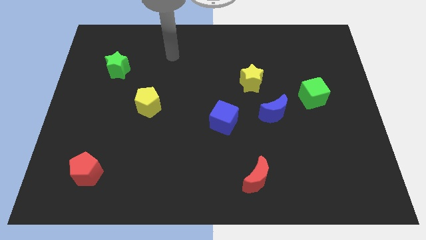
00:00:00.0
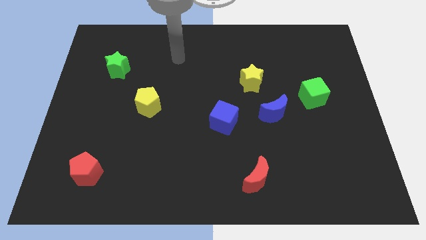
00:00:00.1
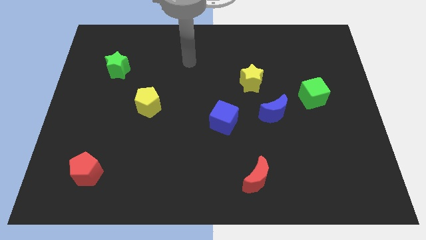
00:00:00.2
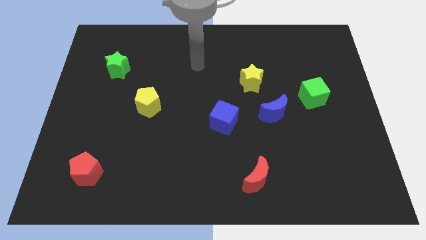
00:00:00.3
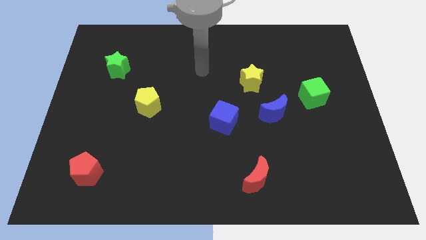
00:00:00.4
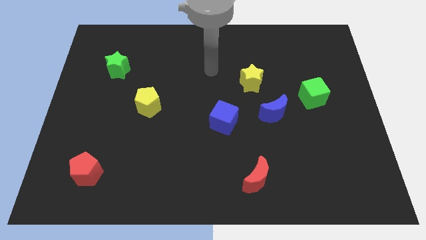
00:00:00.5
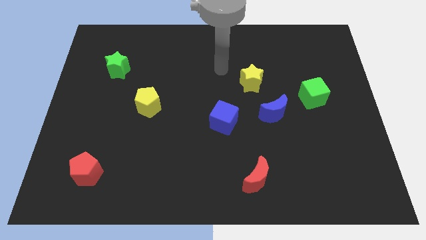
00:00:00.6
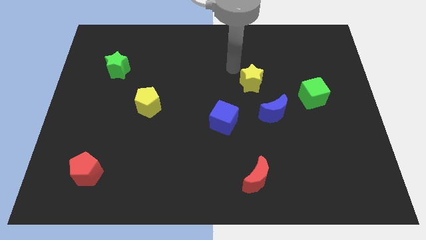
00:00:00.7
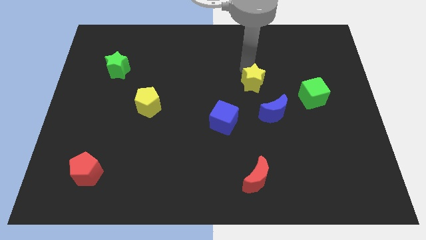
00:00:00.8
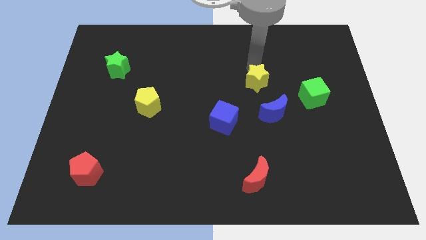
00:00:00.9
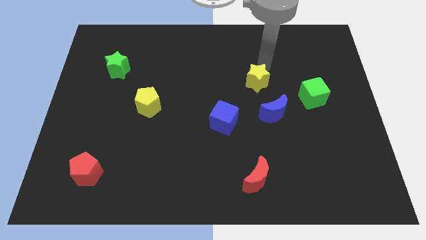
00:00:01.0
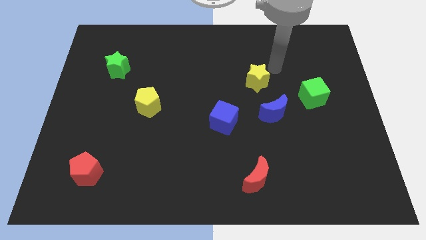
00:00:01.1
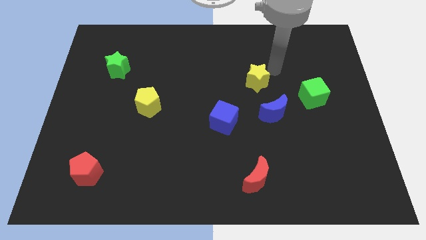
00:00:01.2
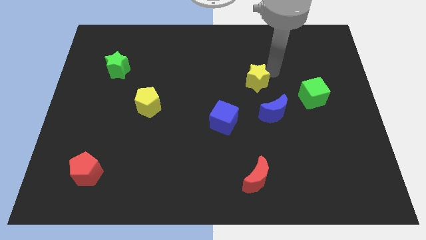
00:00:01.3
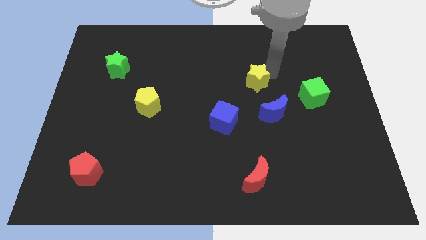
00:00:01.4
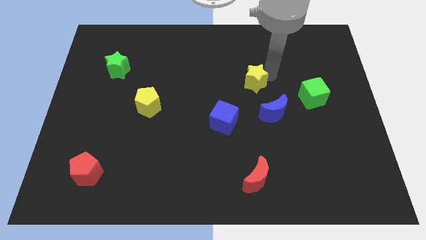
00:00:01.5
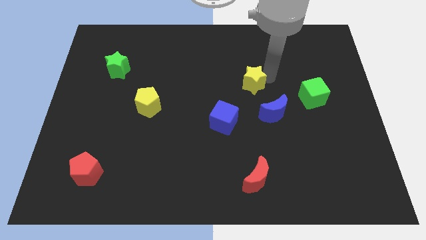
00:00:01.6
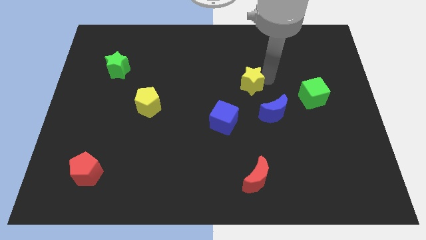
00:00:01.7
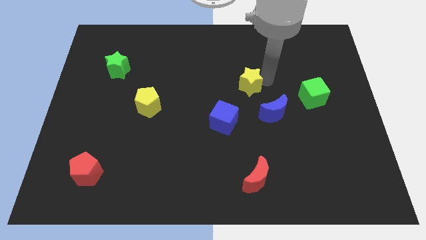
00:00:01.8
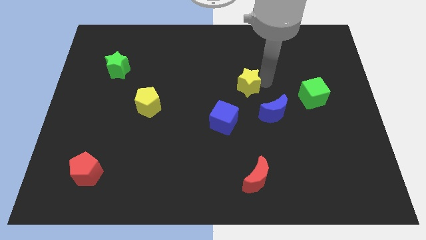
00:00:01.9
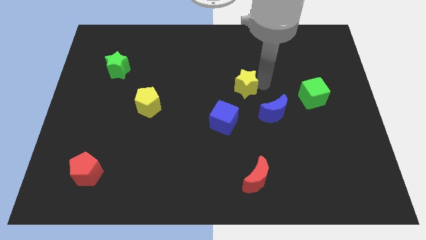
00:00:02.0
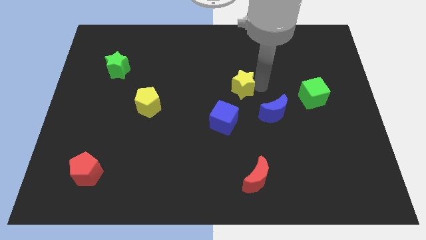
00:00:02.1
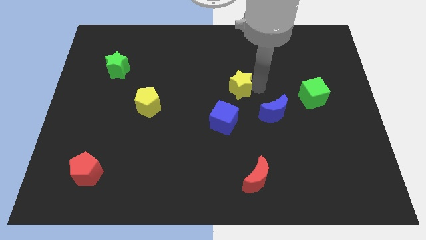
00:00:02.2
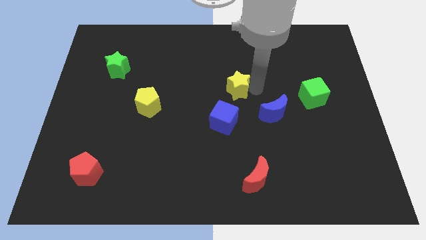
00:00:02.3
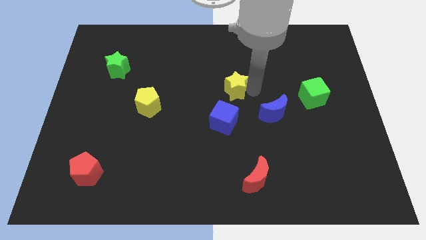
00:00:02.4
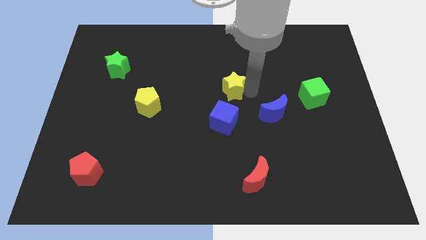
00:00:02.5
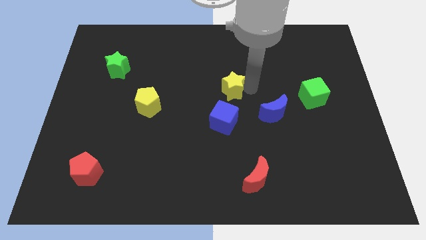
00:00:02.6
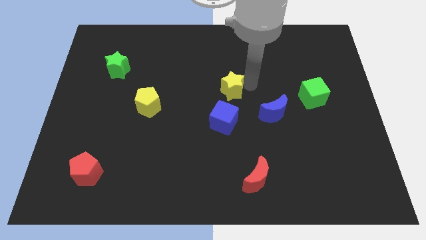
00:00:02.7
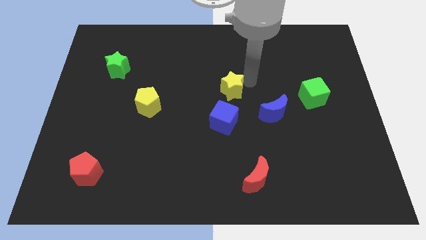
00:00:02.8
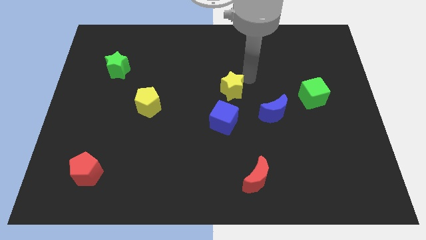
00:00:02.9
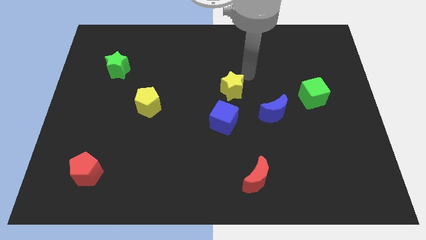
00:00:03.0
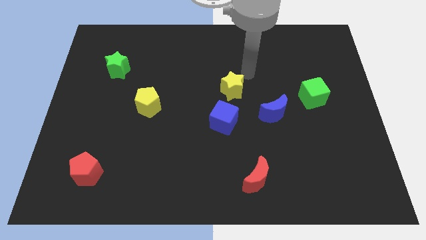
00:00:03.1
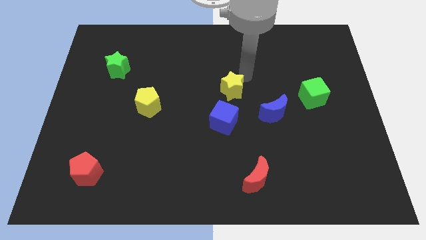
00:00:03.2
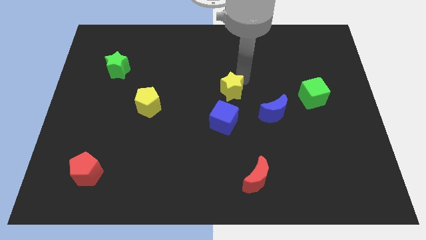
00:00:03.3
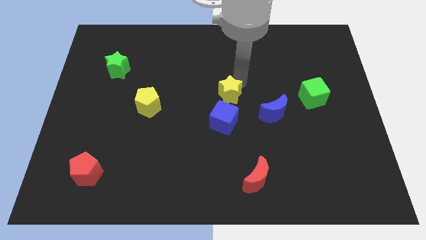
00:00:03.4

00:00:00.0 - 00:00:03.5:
move the yellow star a bit diagonally down and left

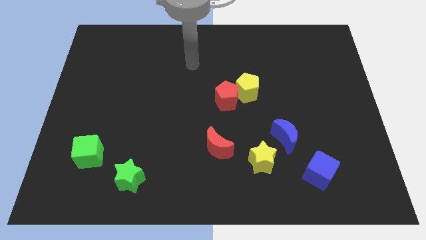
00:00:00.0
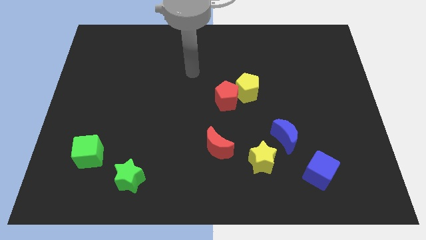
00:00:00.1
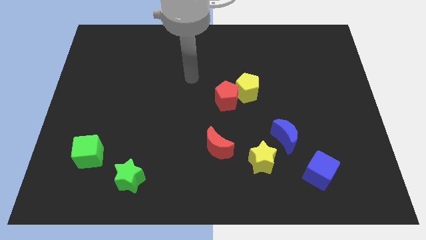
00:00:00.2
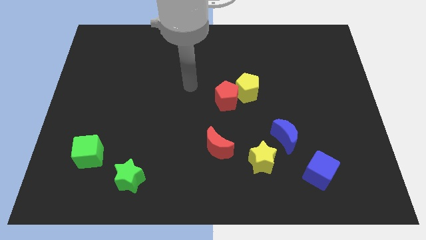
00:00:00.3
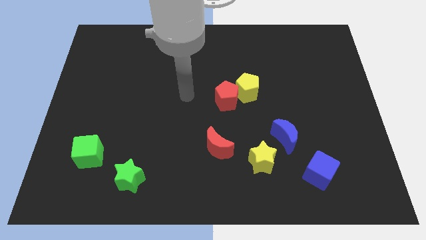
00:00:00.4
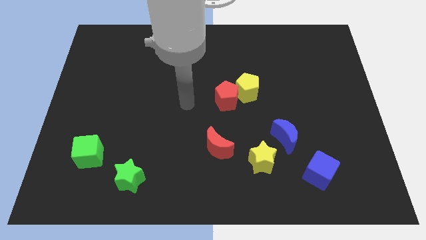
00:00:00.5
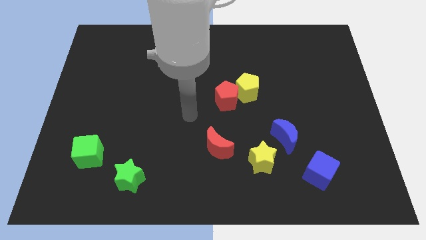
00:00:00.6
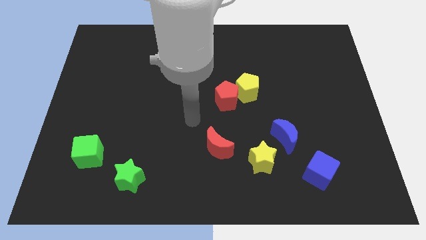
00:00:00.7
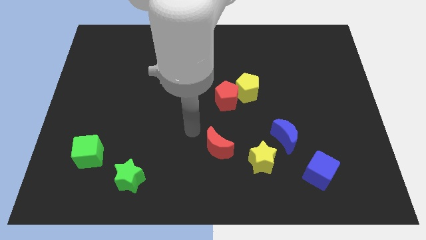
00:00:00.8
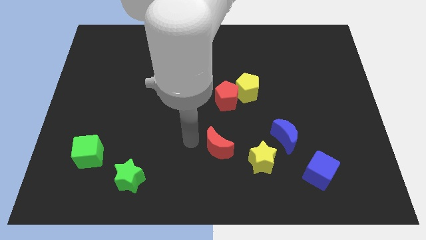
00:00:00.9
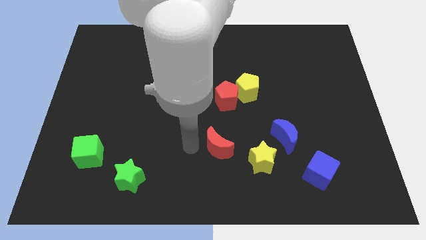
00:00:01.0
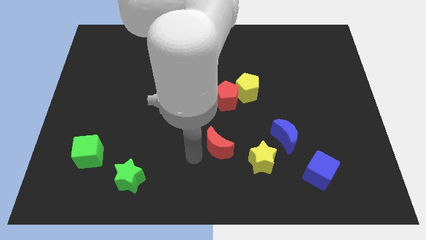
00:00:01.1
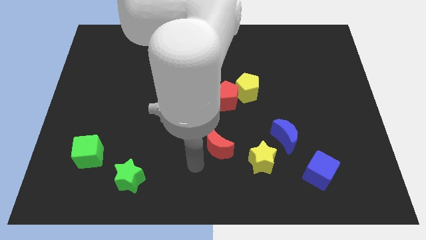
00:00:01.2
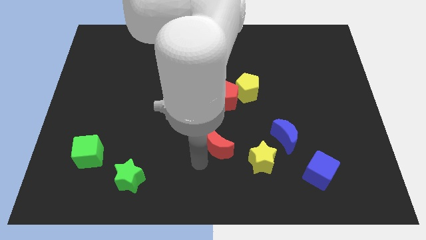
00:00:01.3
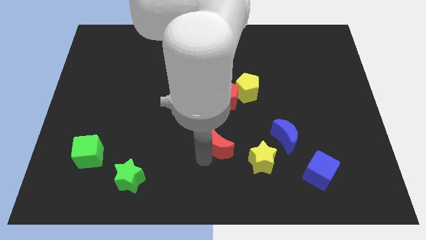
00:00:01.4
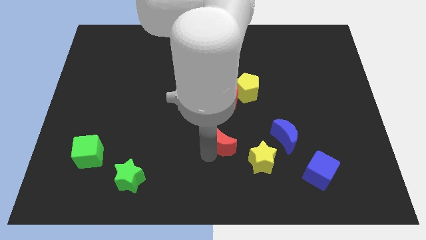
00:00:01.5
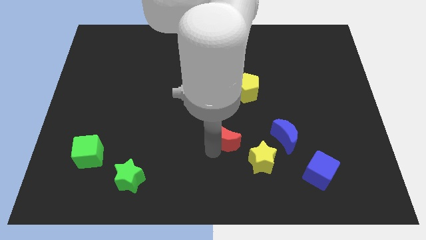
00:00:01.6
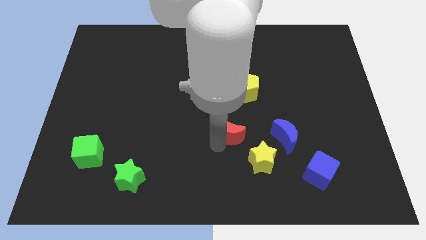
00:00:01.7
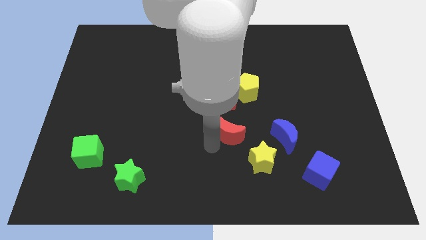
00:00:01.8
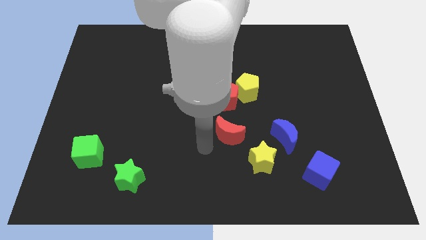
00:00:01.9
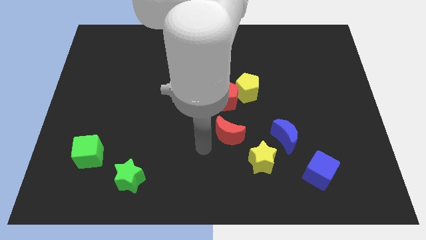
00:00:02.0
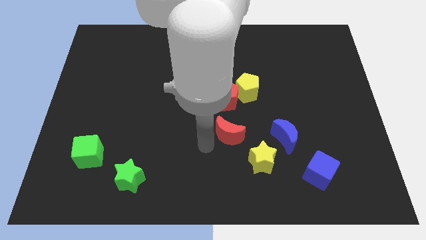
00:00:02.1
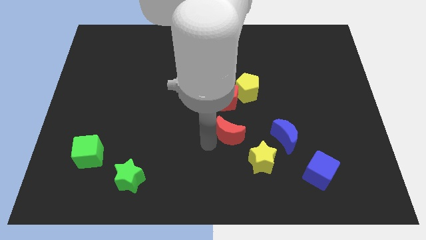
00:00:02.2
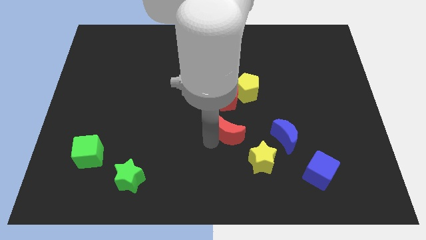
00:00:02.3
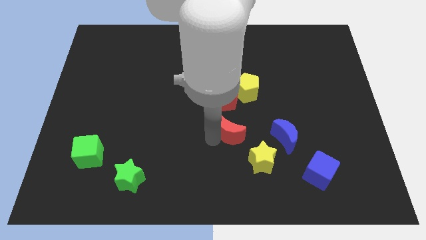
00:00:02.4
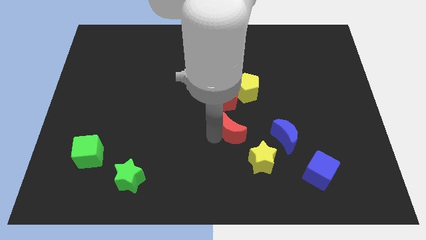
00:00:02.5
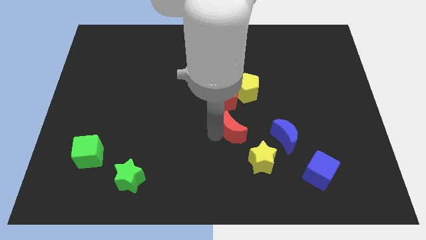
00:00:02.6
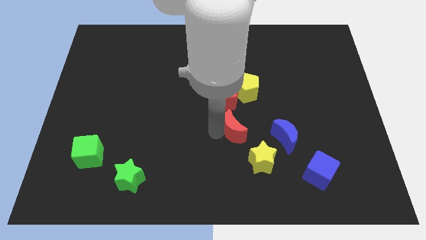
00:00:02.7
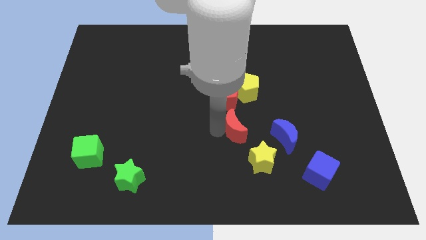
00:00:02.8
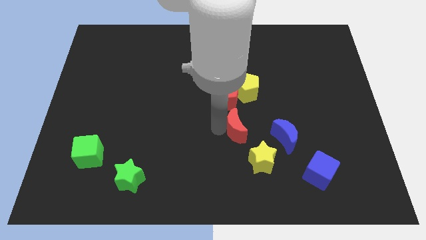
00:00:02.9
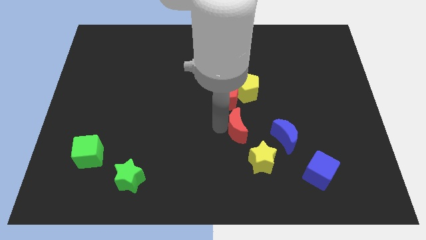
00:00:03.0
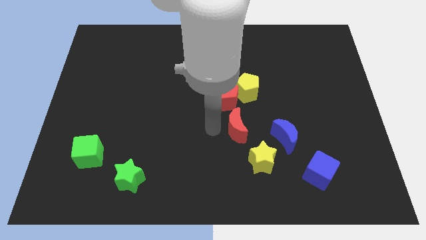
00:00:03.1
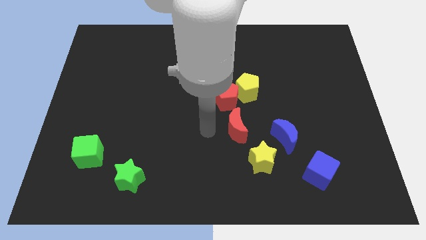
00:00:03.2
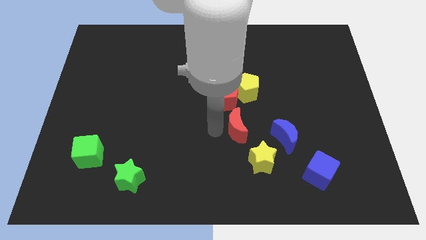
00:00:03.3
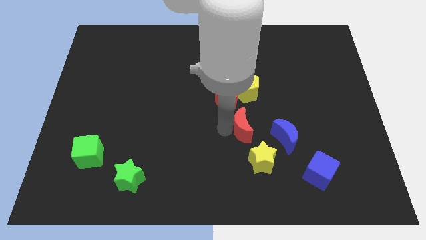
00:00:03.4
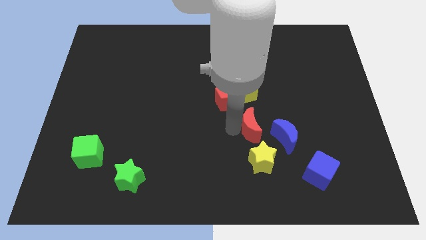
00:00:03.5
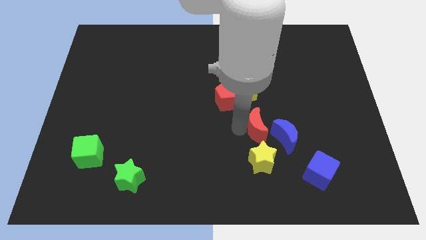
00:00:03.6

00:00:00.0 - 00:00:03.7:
move the red moon right slightly

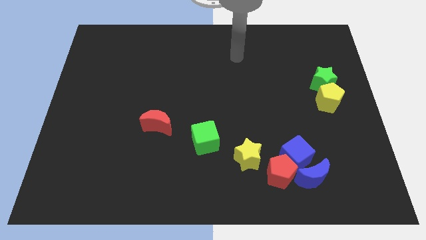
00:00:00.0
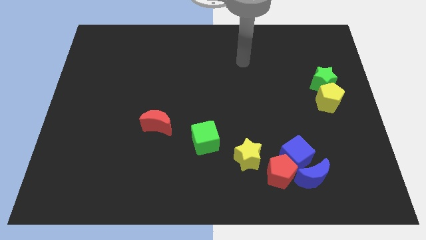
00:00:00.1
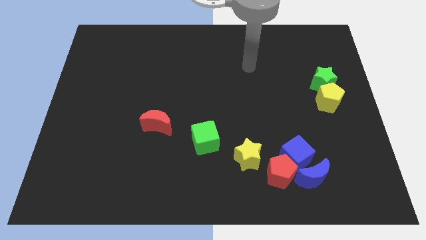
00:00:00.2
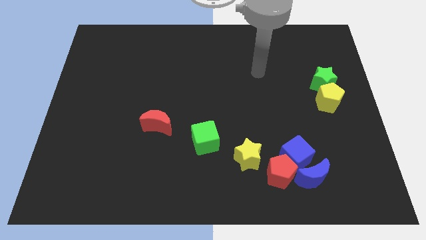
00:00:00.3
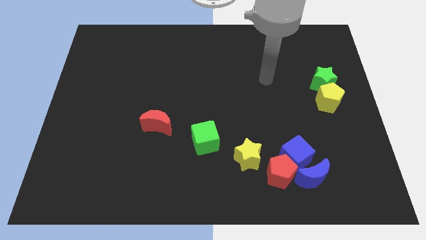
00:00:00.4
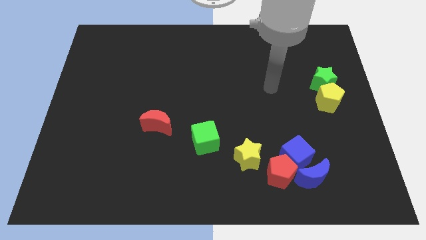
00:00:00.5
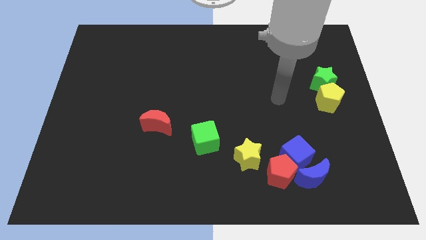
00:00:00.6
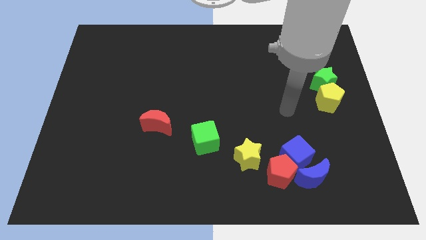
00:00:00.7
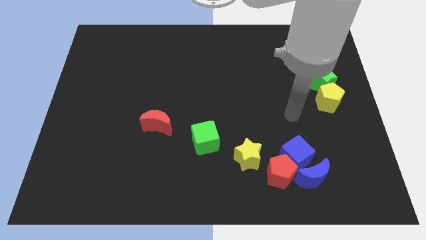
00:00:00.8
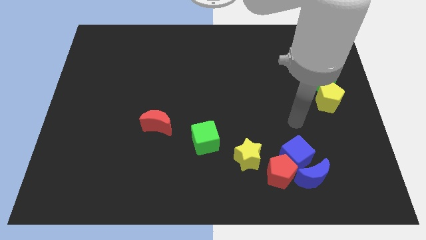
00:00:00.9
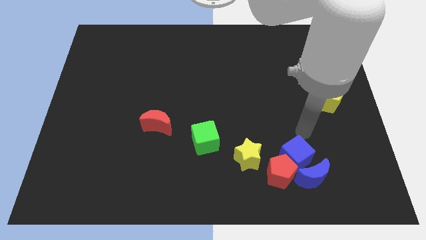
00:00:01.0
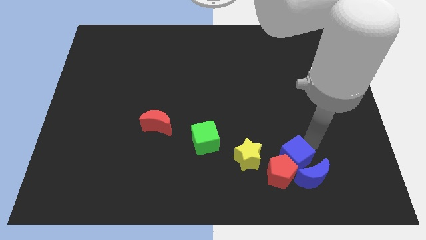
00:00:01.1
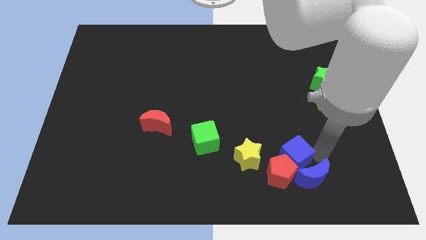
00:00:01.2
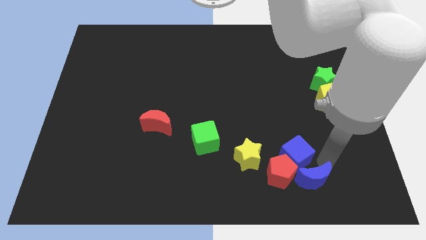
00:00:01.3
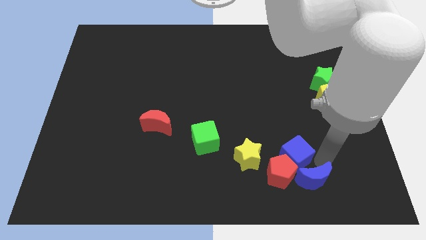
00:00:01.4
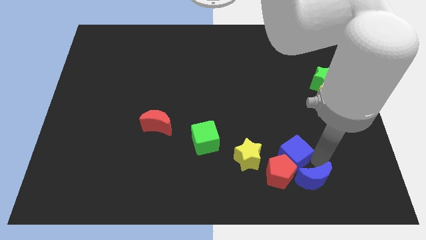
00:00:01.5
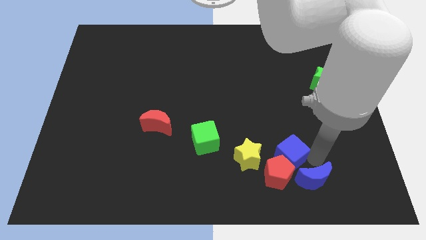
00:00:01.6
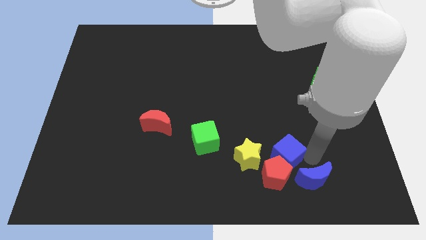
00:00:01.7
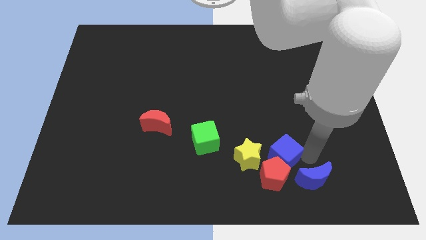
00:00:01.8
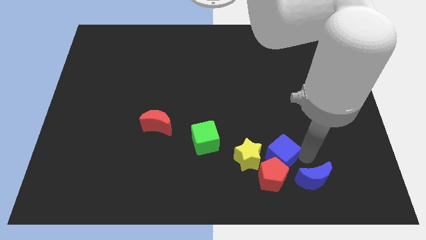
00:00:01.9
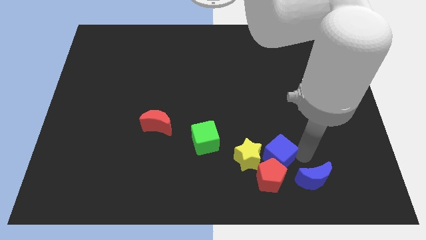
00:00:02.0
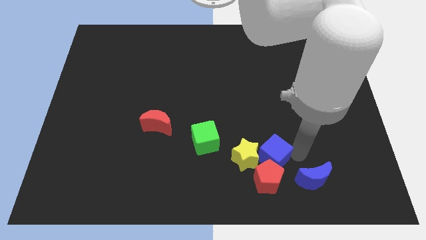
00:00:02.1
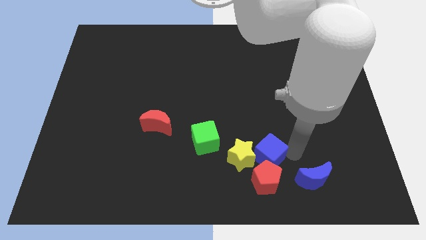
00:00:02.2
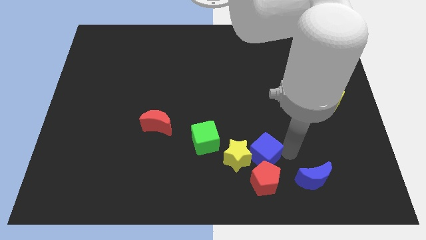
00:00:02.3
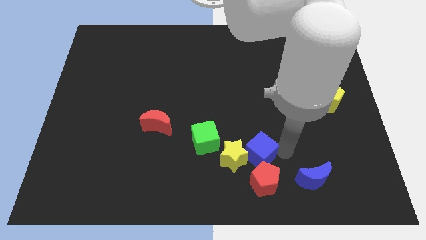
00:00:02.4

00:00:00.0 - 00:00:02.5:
slide the blue cube slightly to the left
